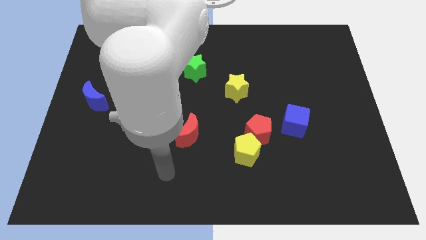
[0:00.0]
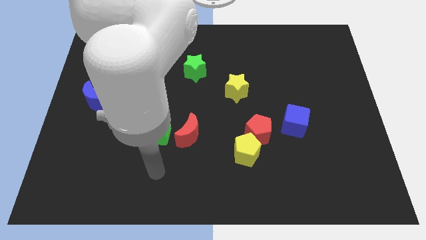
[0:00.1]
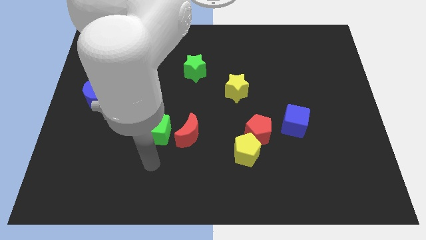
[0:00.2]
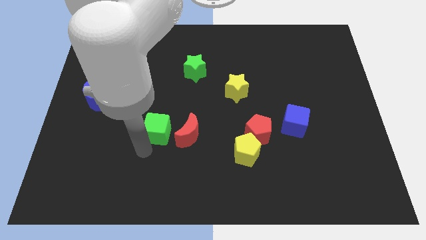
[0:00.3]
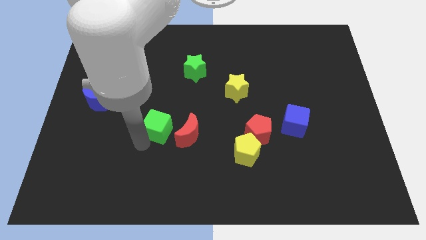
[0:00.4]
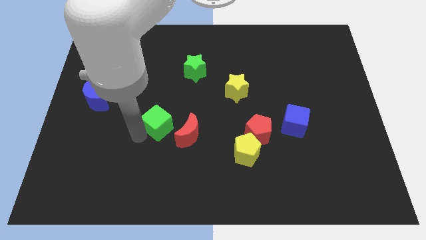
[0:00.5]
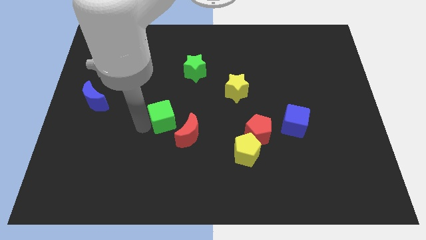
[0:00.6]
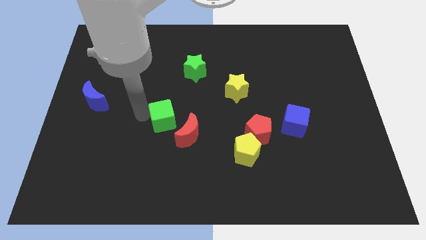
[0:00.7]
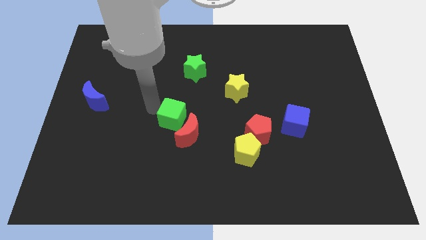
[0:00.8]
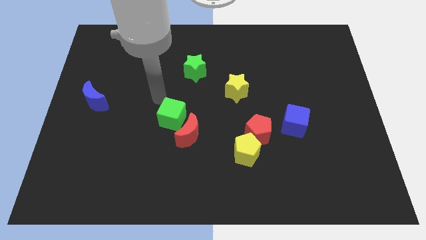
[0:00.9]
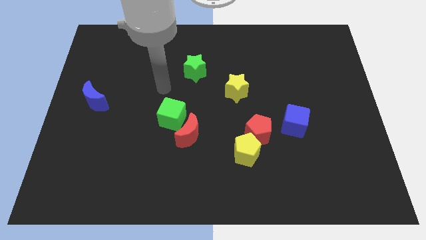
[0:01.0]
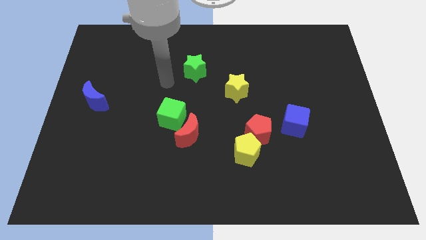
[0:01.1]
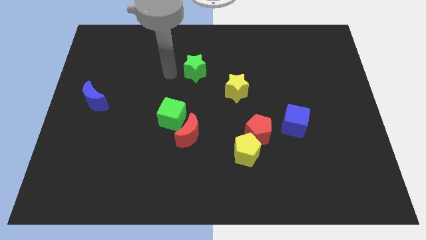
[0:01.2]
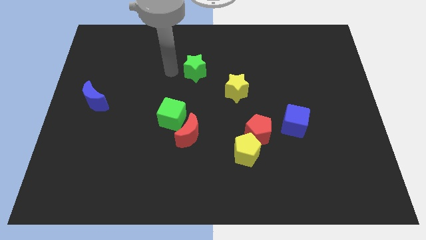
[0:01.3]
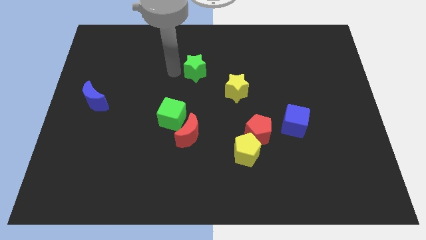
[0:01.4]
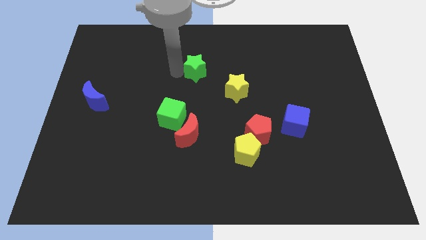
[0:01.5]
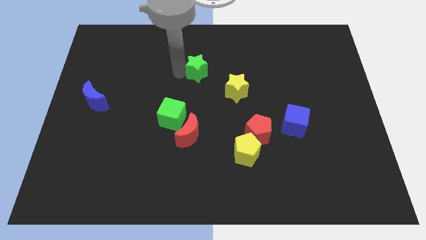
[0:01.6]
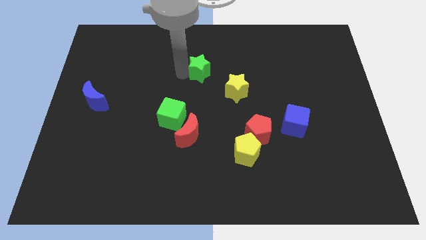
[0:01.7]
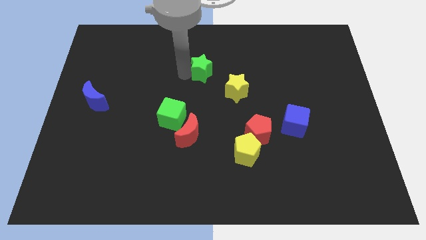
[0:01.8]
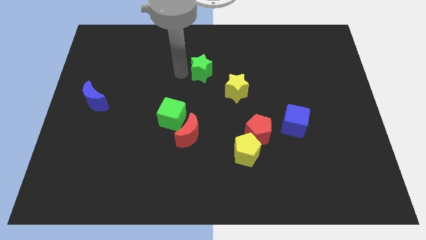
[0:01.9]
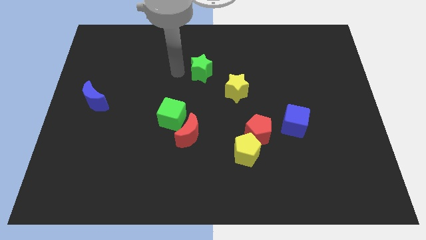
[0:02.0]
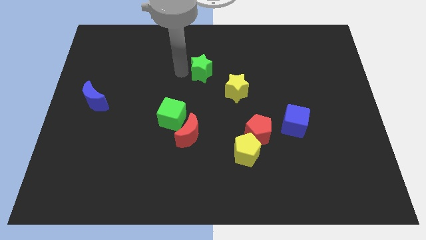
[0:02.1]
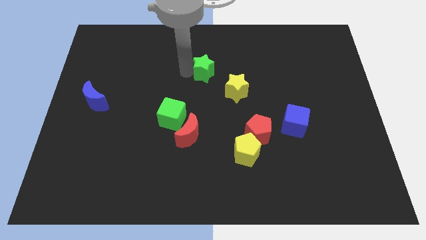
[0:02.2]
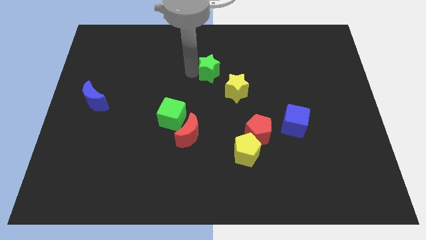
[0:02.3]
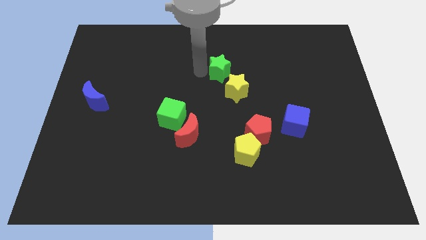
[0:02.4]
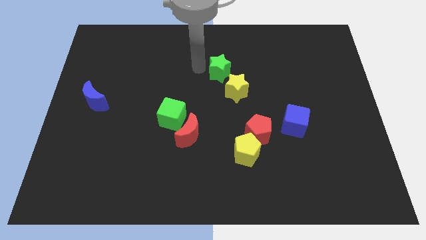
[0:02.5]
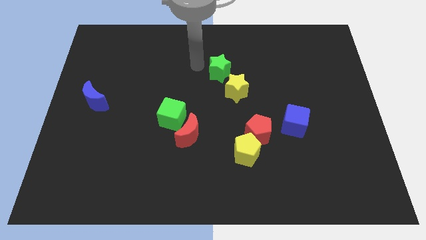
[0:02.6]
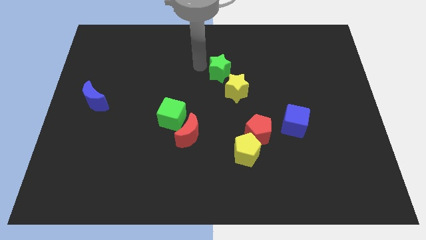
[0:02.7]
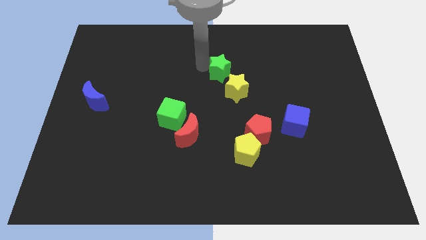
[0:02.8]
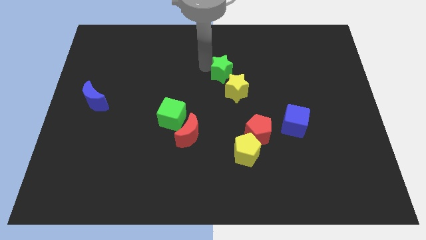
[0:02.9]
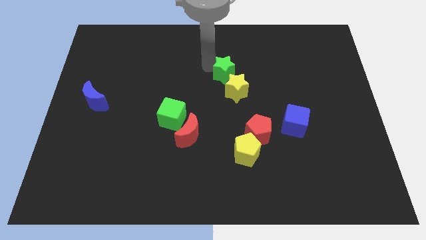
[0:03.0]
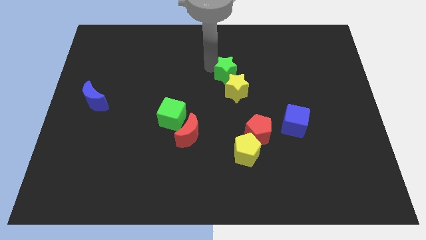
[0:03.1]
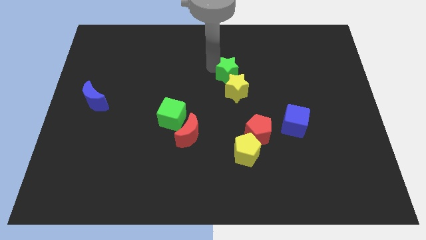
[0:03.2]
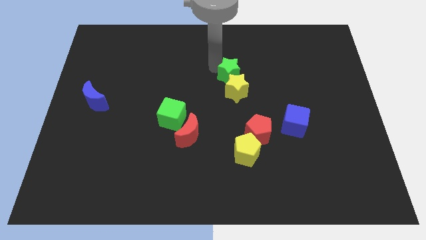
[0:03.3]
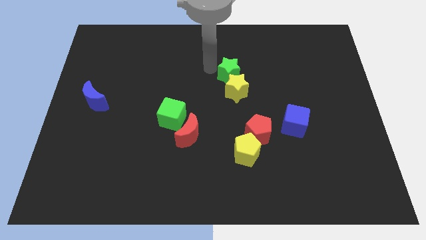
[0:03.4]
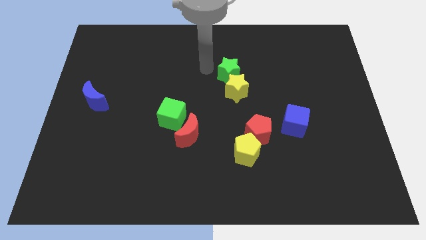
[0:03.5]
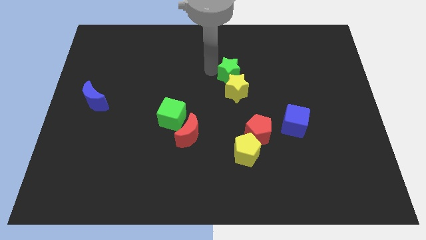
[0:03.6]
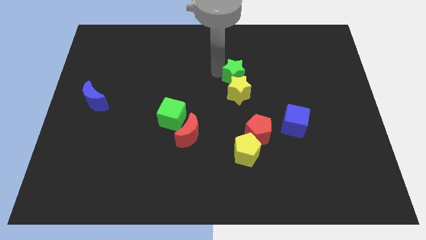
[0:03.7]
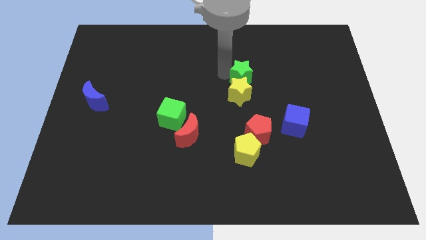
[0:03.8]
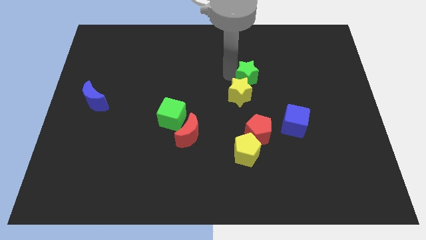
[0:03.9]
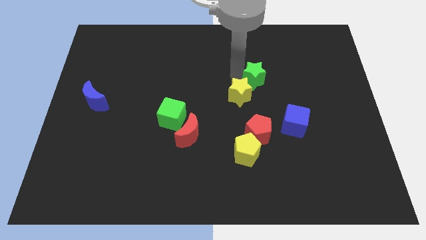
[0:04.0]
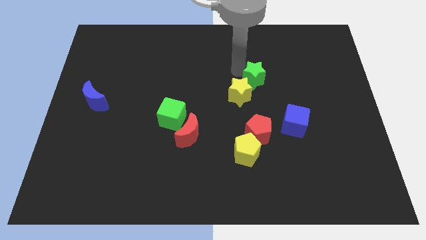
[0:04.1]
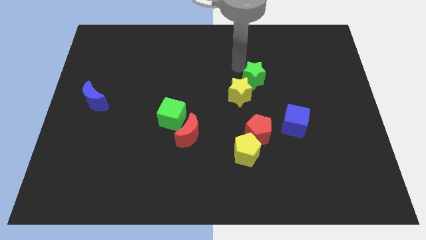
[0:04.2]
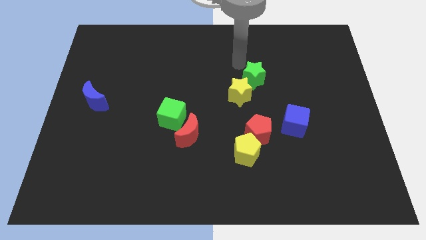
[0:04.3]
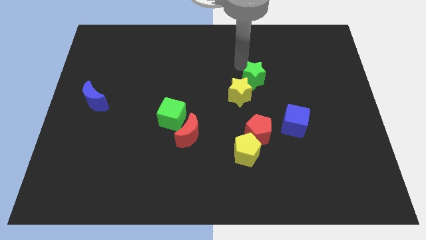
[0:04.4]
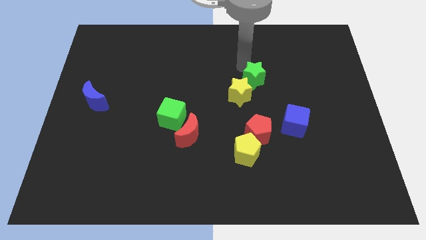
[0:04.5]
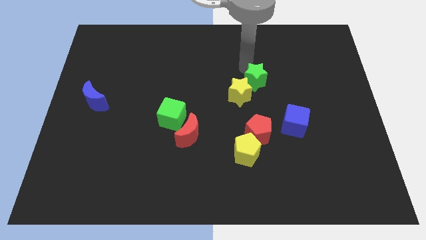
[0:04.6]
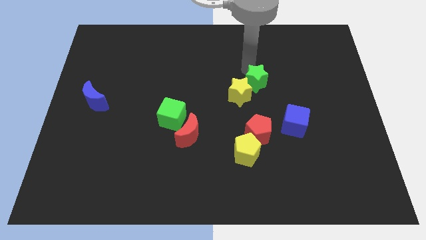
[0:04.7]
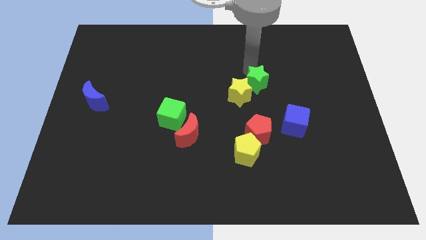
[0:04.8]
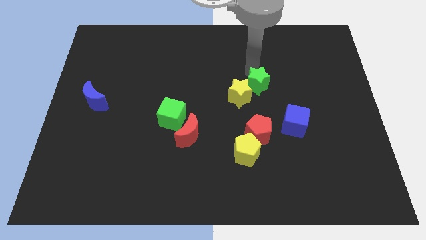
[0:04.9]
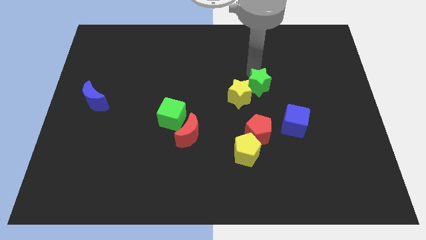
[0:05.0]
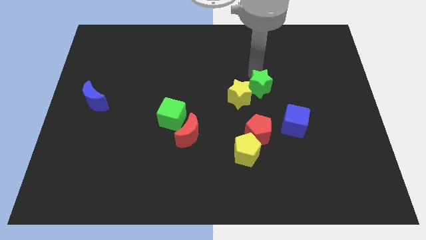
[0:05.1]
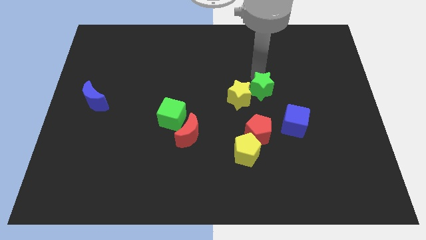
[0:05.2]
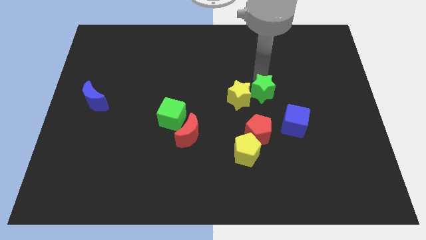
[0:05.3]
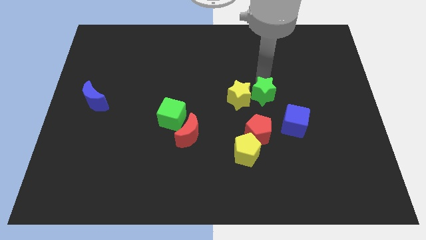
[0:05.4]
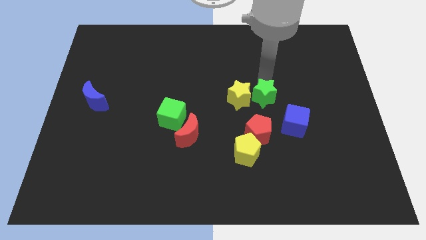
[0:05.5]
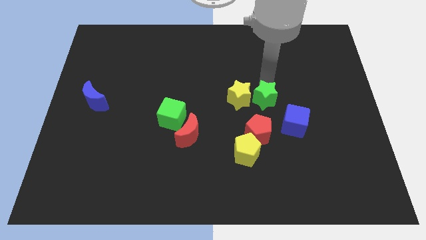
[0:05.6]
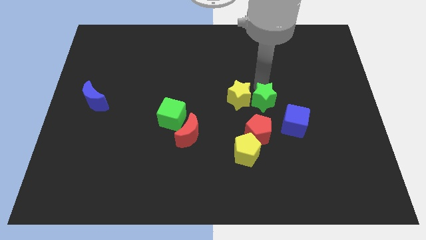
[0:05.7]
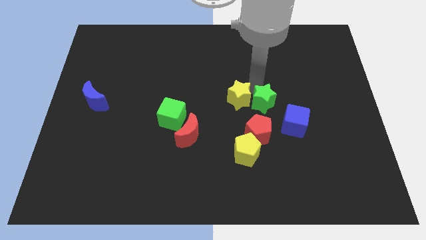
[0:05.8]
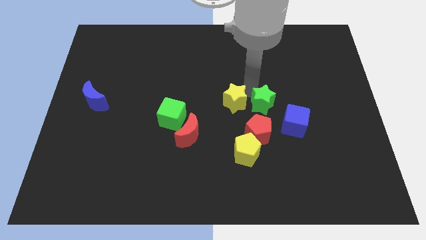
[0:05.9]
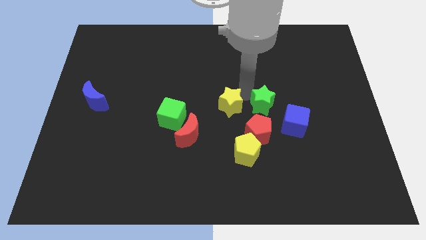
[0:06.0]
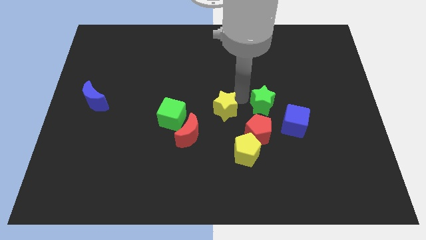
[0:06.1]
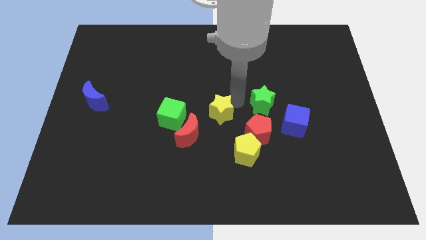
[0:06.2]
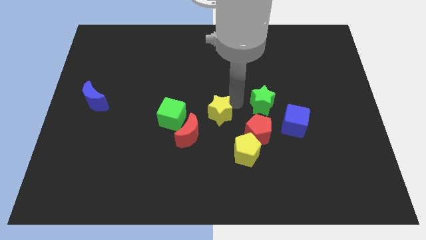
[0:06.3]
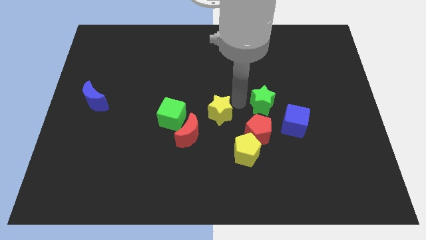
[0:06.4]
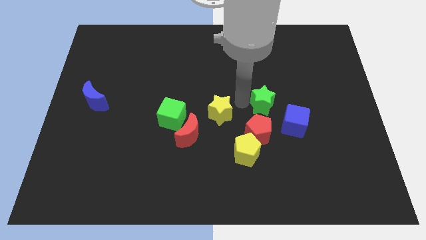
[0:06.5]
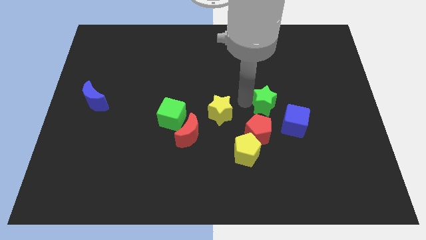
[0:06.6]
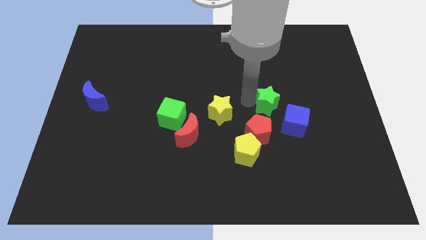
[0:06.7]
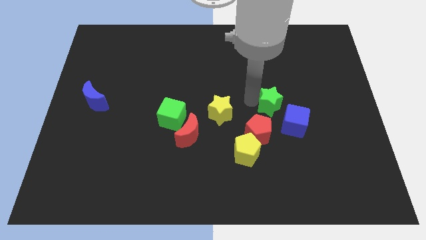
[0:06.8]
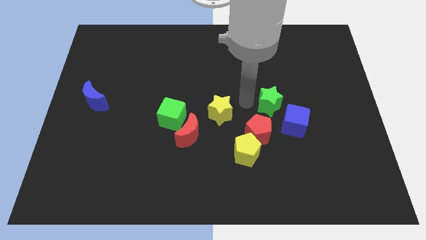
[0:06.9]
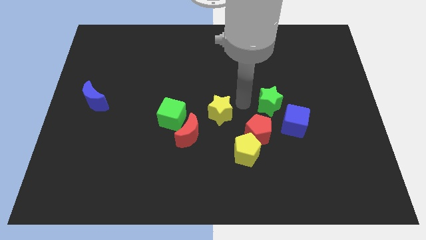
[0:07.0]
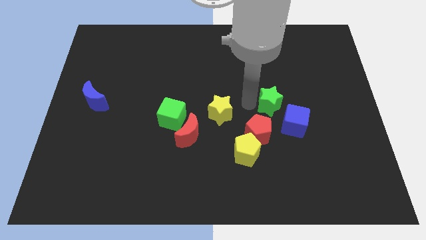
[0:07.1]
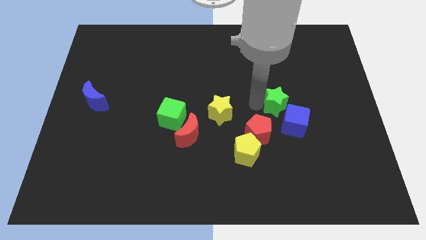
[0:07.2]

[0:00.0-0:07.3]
push the green star downwards and to the right

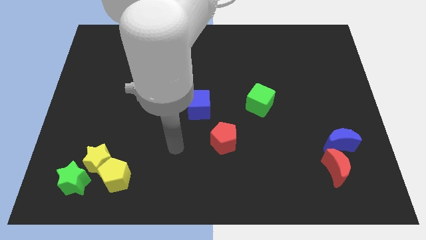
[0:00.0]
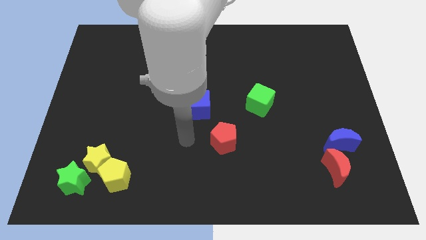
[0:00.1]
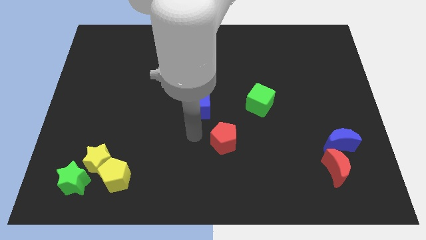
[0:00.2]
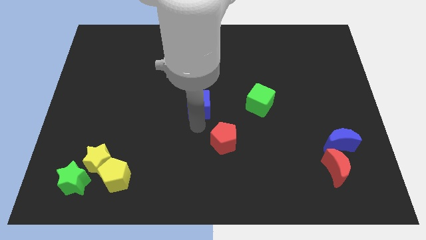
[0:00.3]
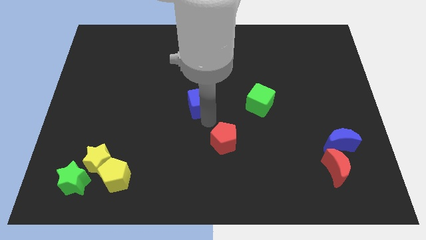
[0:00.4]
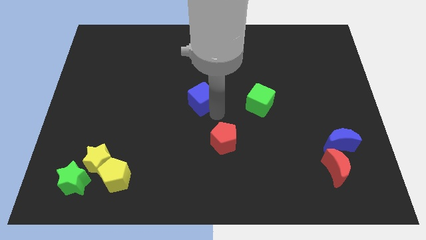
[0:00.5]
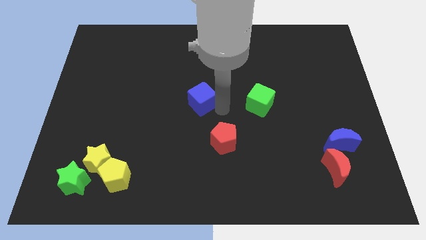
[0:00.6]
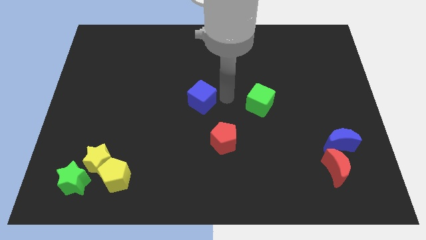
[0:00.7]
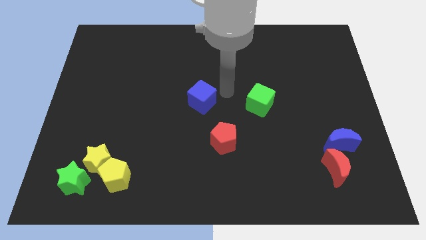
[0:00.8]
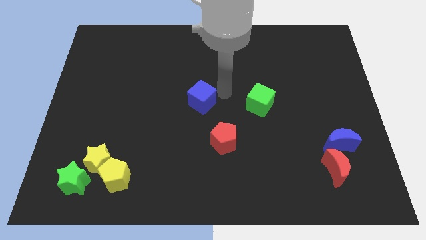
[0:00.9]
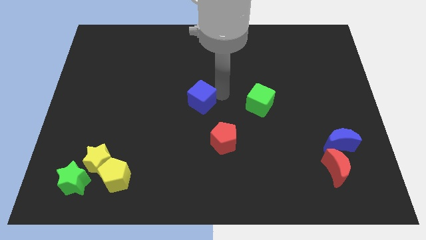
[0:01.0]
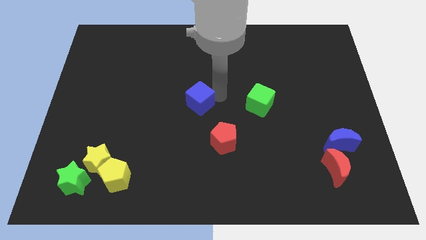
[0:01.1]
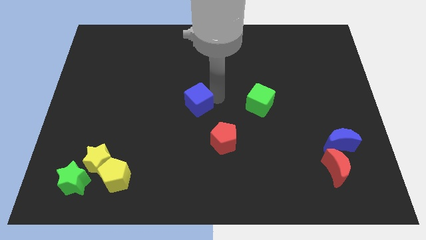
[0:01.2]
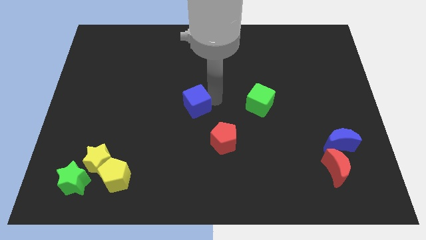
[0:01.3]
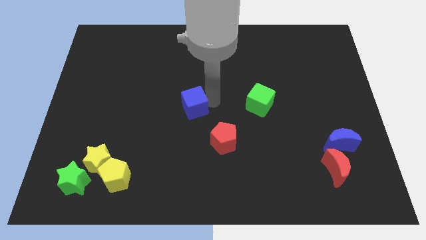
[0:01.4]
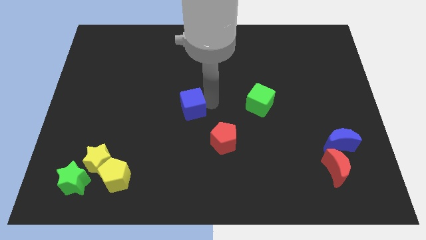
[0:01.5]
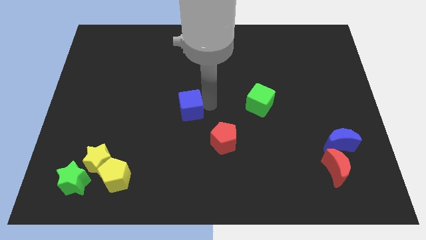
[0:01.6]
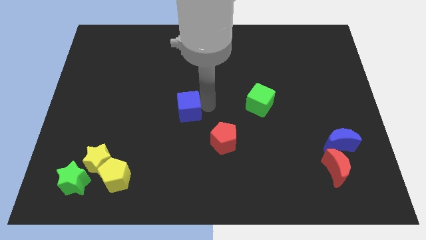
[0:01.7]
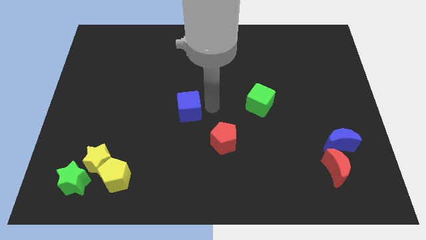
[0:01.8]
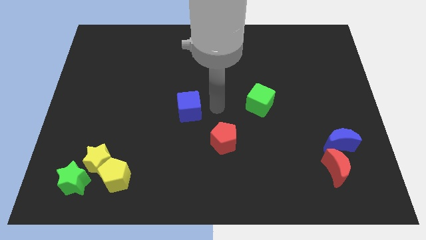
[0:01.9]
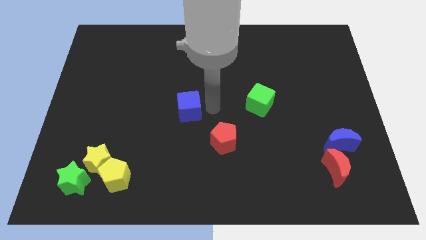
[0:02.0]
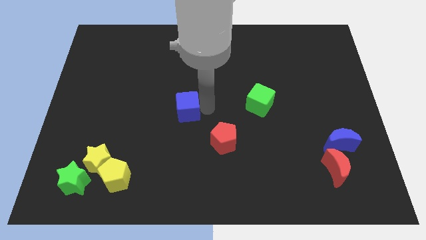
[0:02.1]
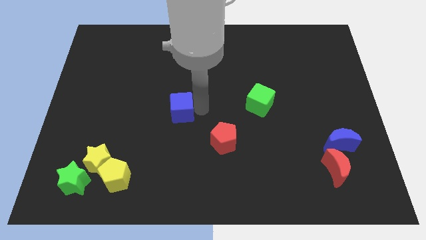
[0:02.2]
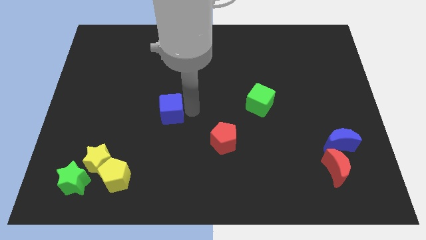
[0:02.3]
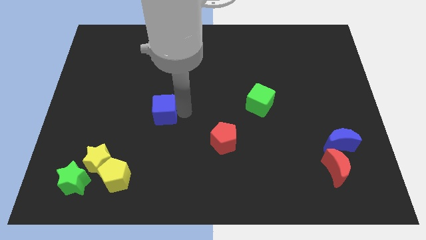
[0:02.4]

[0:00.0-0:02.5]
slightly slide the blue cube to the left
